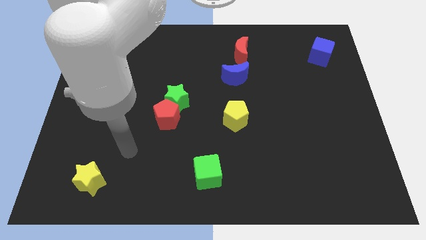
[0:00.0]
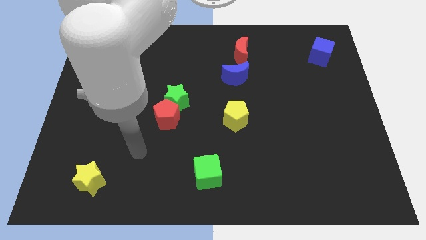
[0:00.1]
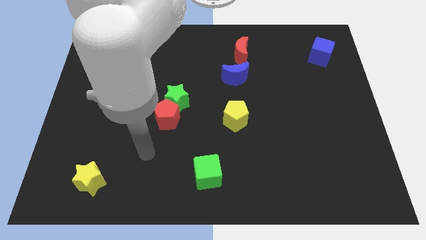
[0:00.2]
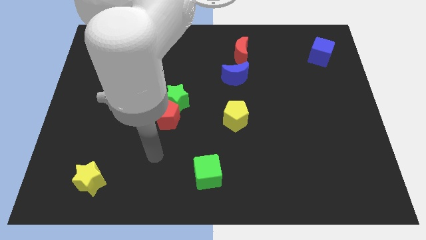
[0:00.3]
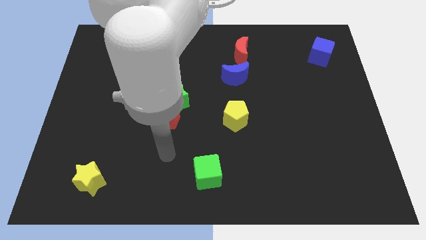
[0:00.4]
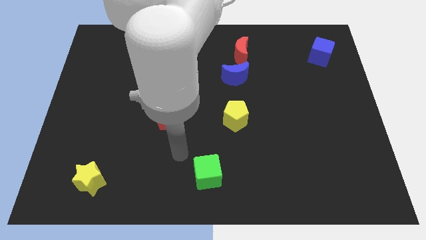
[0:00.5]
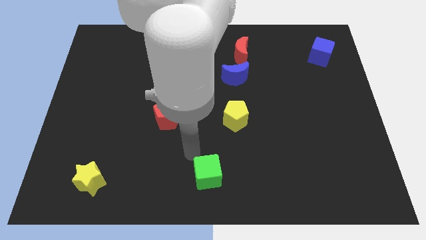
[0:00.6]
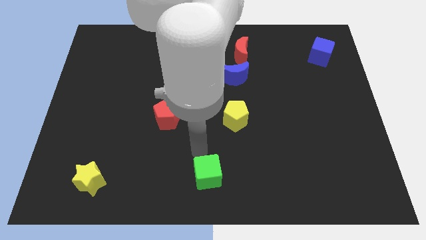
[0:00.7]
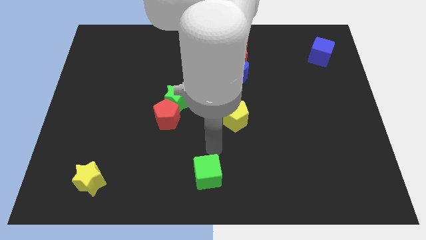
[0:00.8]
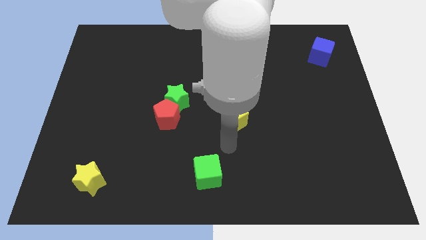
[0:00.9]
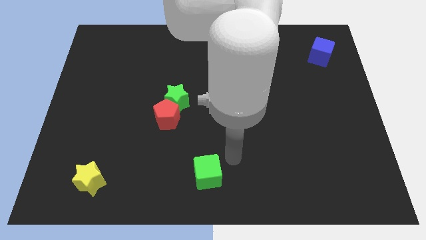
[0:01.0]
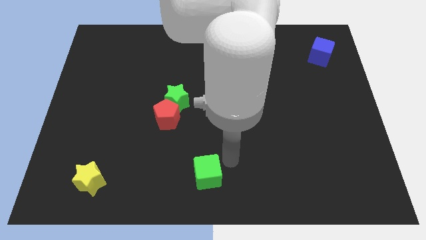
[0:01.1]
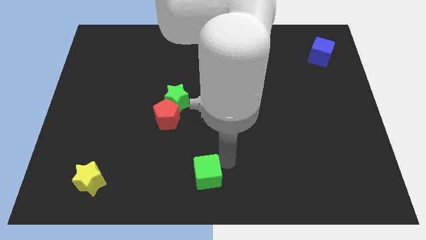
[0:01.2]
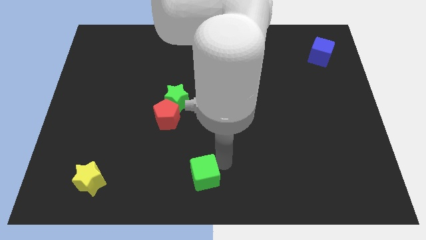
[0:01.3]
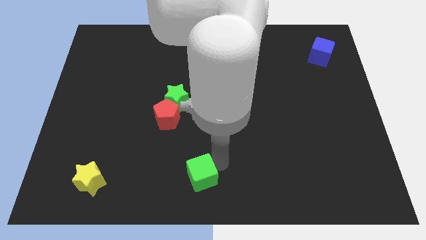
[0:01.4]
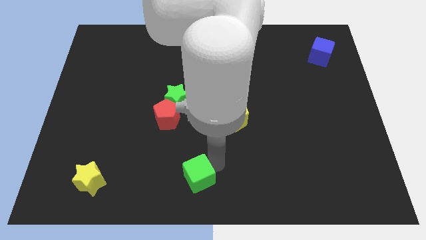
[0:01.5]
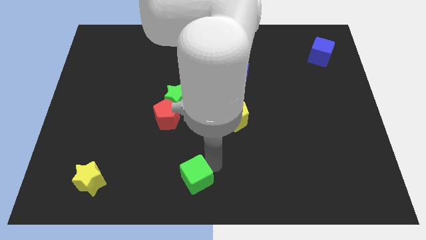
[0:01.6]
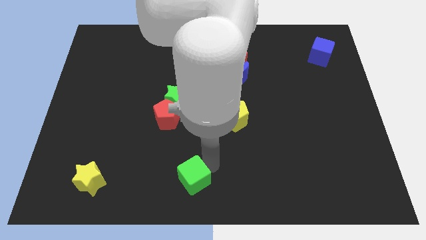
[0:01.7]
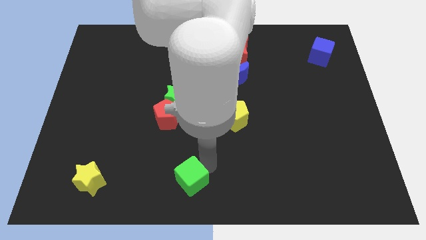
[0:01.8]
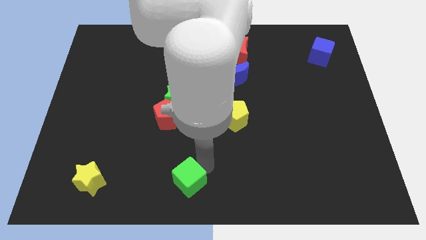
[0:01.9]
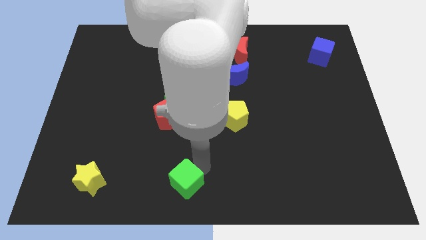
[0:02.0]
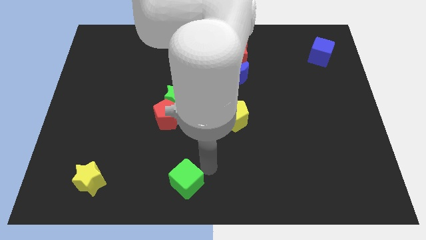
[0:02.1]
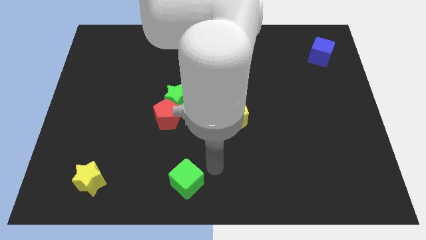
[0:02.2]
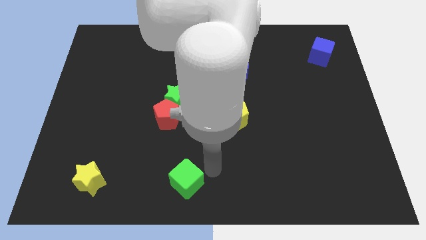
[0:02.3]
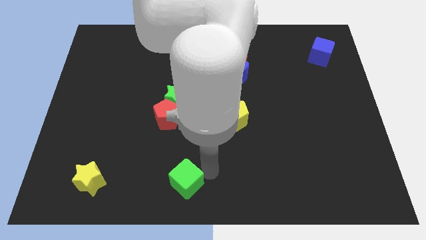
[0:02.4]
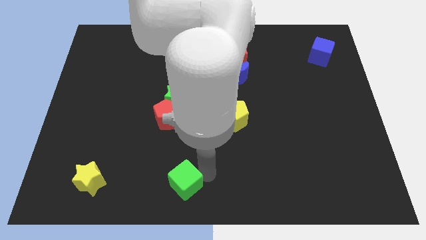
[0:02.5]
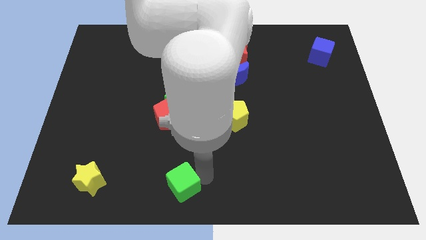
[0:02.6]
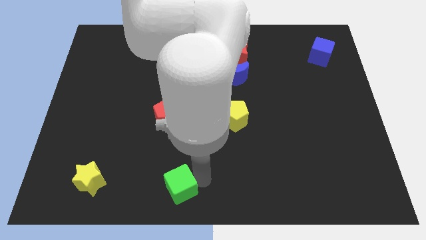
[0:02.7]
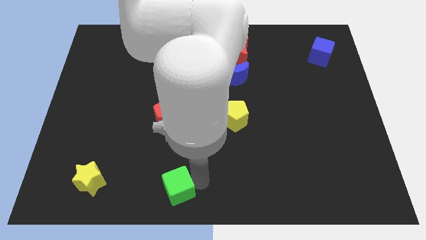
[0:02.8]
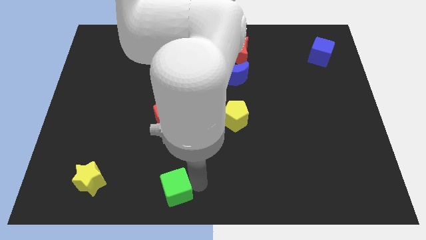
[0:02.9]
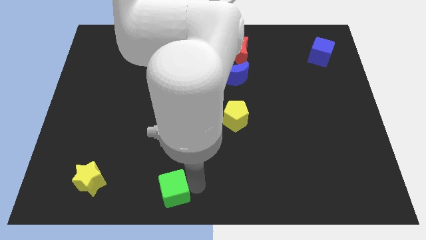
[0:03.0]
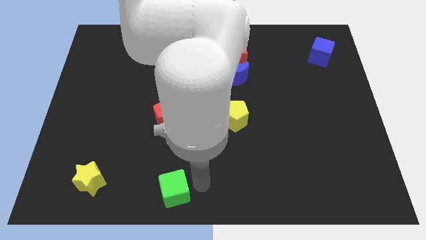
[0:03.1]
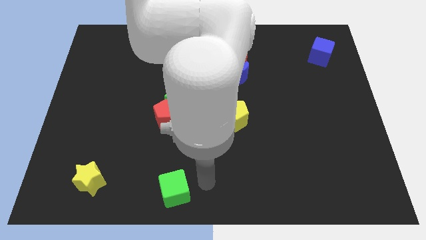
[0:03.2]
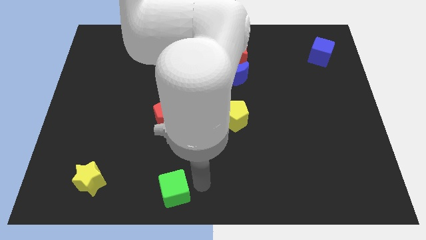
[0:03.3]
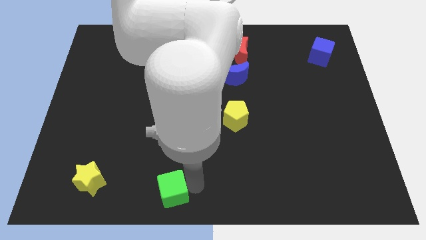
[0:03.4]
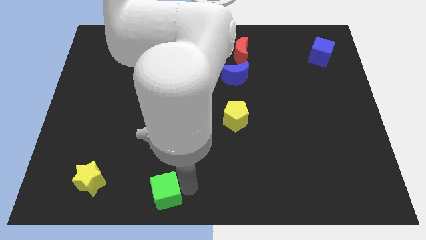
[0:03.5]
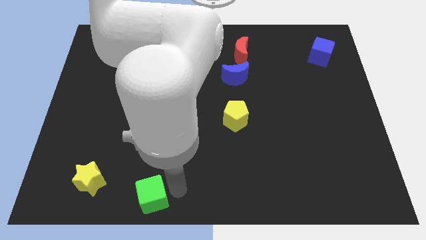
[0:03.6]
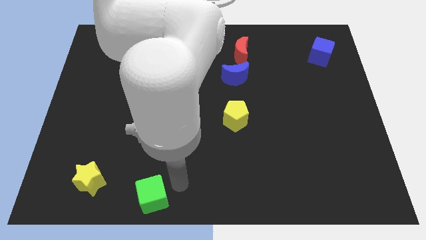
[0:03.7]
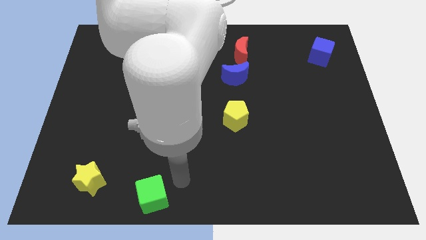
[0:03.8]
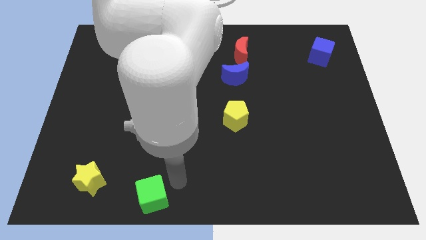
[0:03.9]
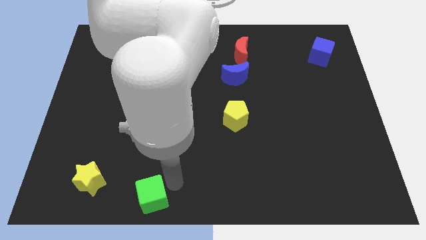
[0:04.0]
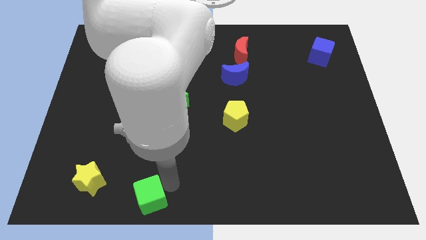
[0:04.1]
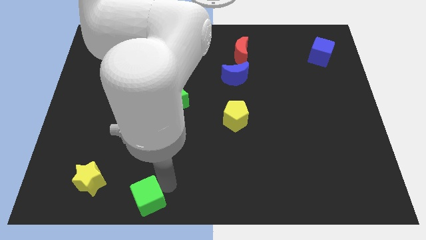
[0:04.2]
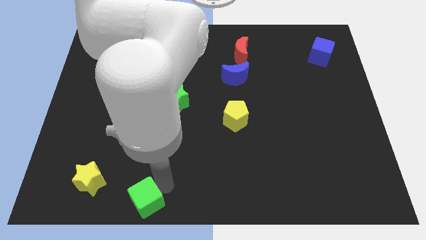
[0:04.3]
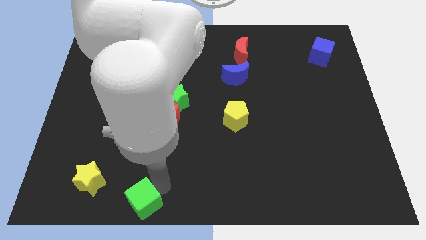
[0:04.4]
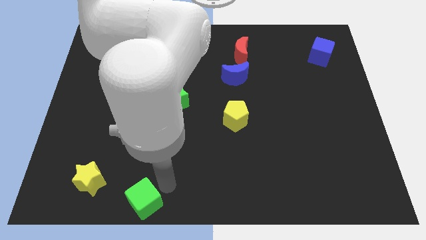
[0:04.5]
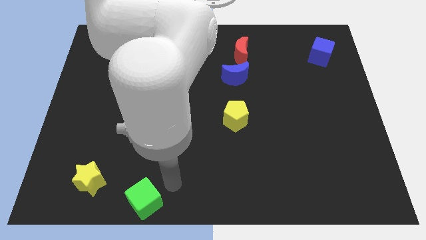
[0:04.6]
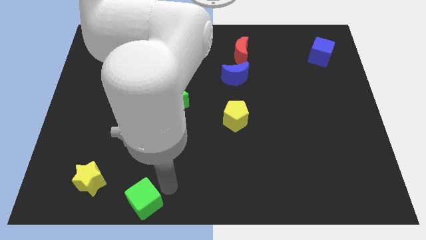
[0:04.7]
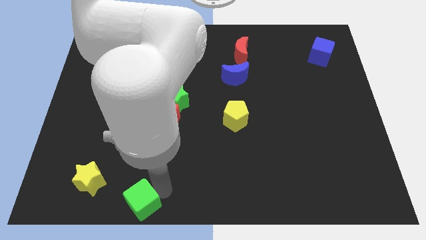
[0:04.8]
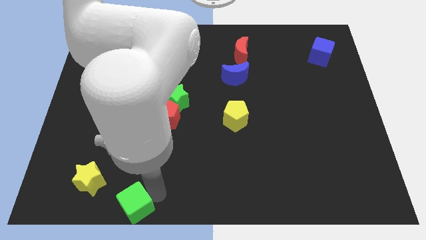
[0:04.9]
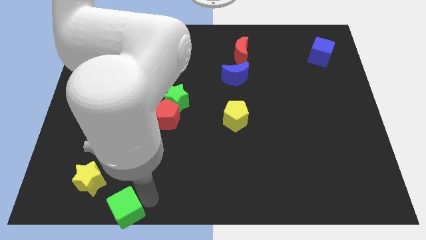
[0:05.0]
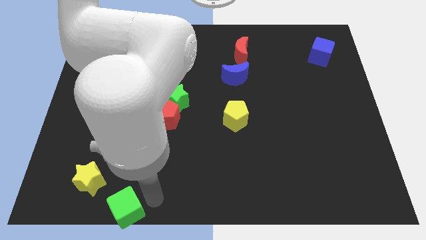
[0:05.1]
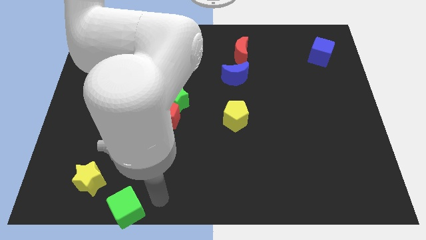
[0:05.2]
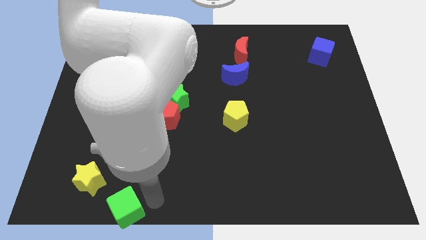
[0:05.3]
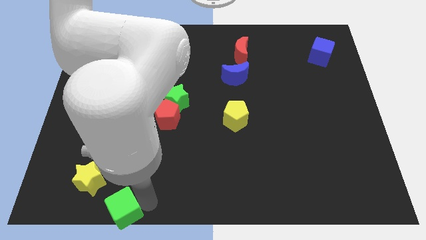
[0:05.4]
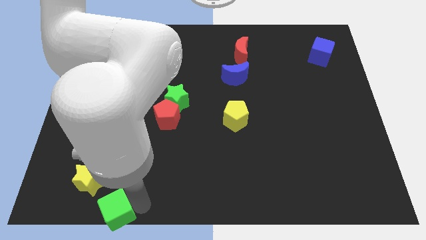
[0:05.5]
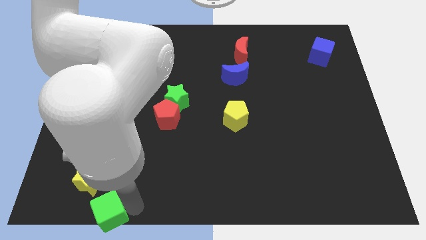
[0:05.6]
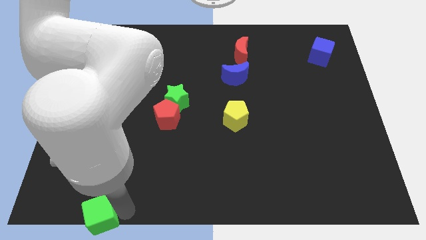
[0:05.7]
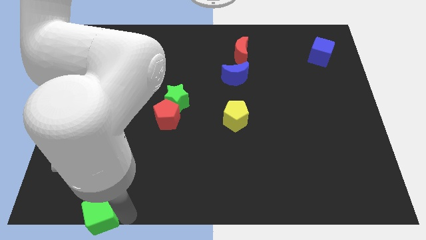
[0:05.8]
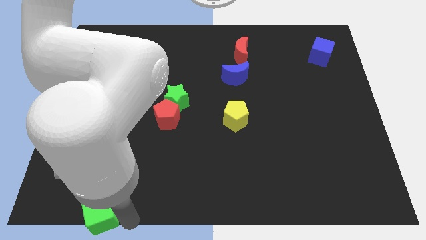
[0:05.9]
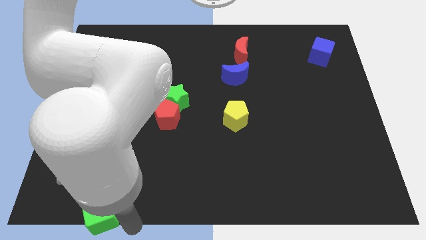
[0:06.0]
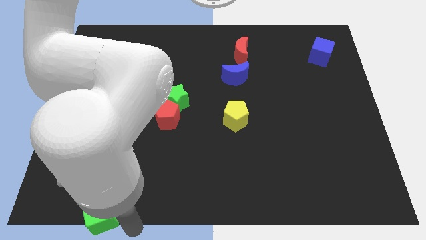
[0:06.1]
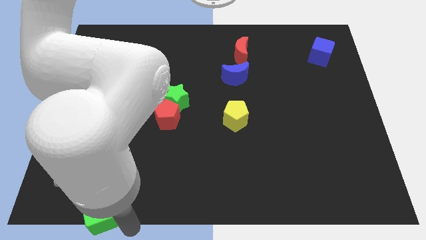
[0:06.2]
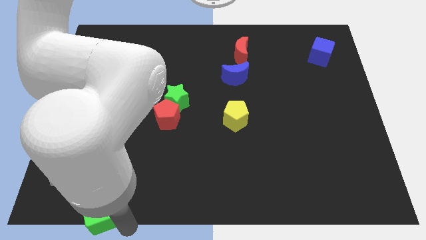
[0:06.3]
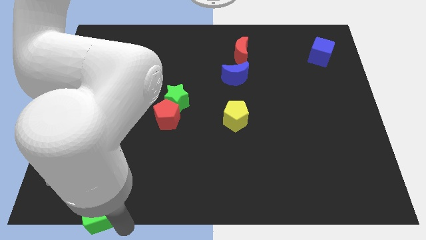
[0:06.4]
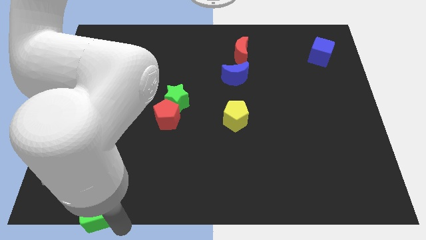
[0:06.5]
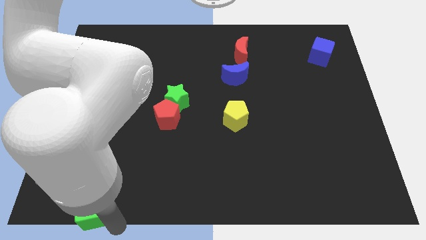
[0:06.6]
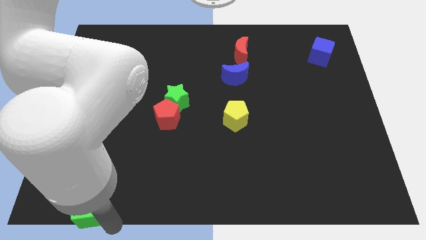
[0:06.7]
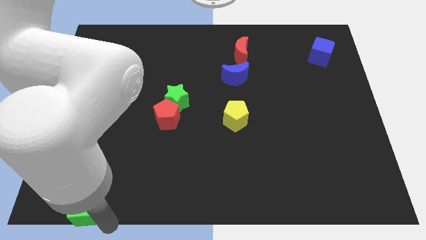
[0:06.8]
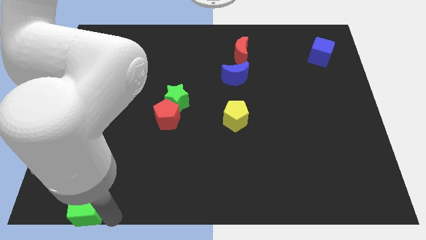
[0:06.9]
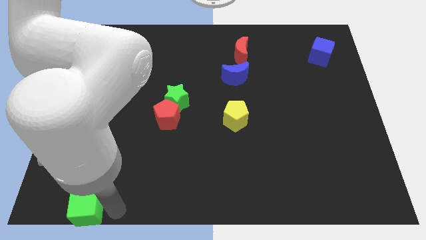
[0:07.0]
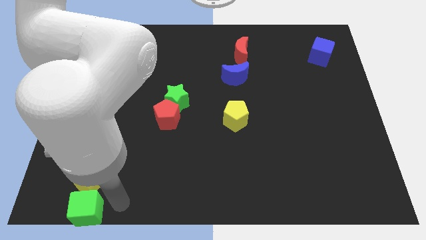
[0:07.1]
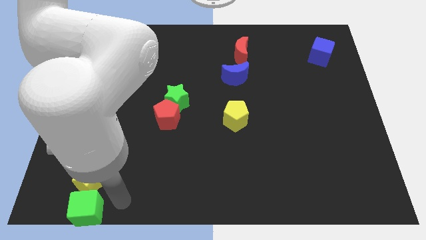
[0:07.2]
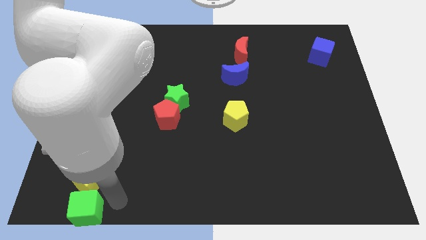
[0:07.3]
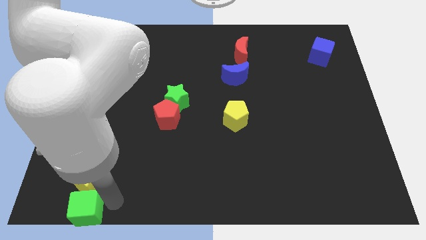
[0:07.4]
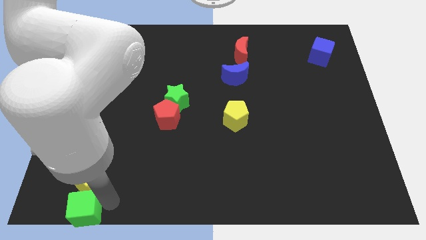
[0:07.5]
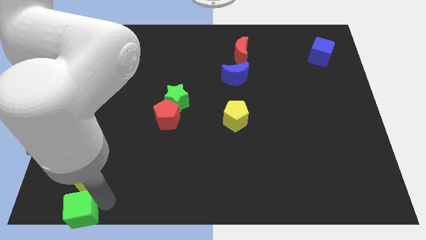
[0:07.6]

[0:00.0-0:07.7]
put the green cube to the bottom left of the board
